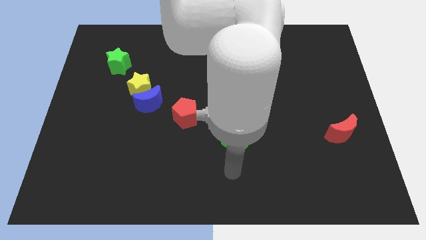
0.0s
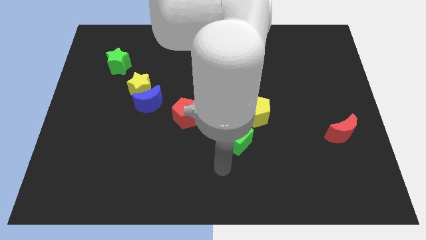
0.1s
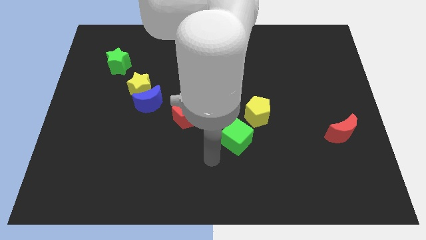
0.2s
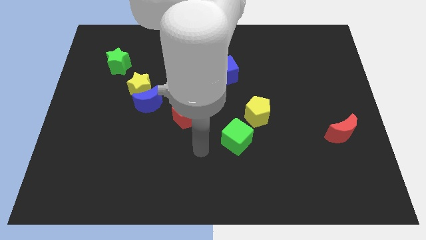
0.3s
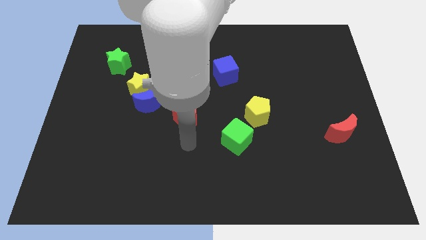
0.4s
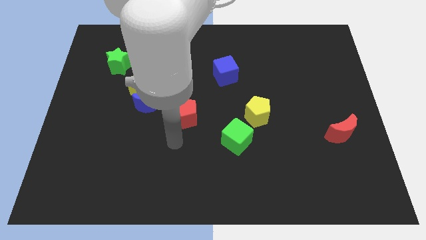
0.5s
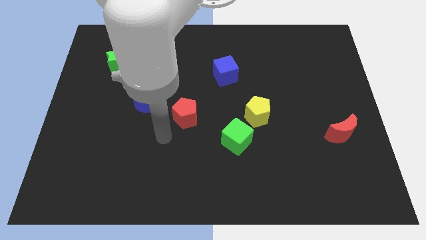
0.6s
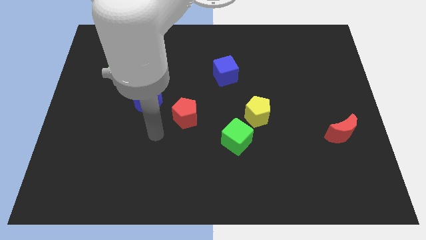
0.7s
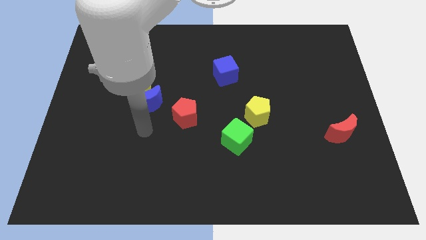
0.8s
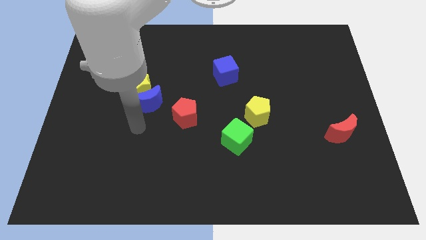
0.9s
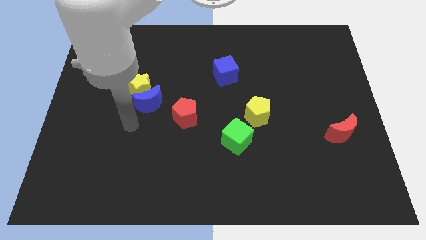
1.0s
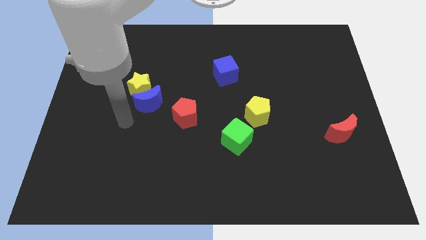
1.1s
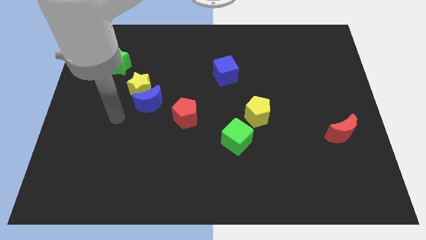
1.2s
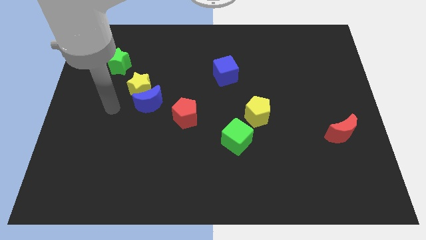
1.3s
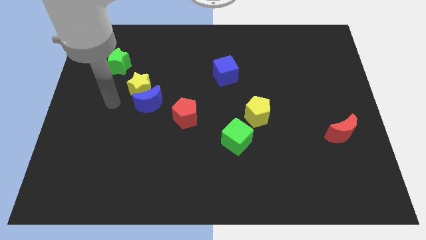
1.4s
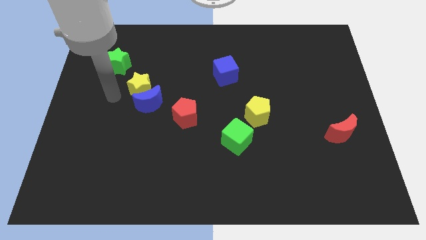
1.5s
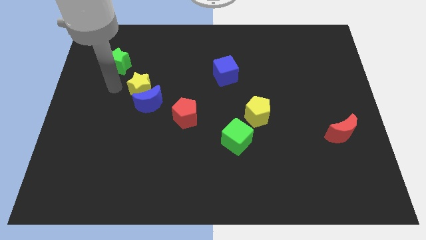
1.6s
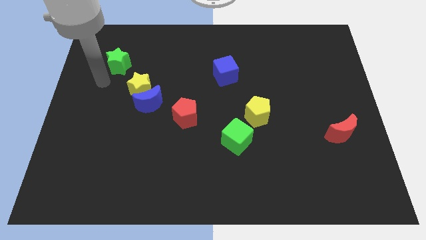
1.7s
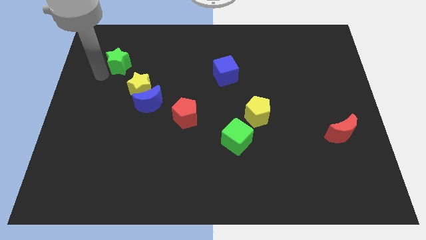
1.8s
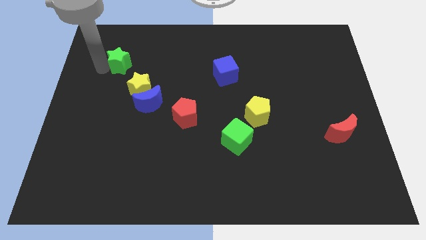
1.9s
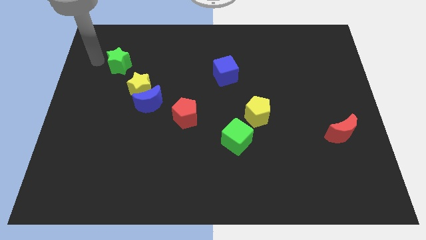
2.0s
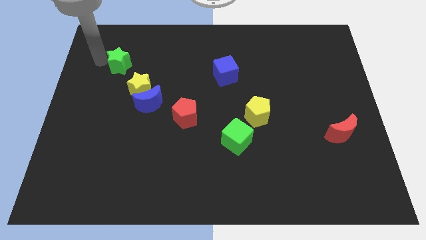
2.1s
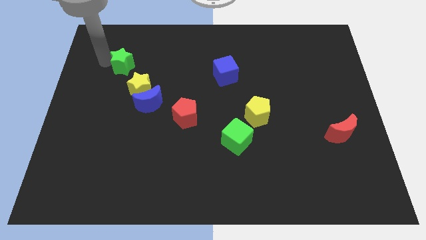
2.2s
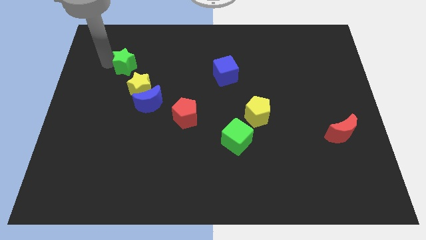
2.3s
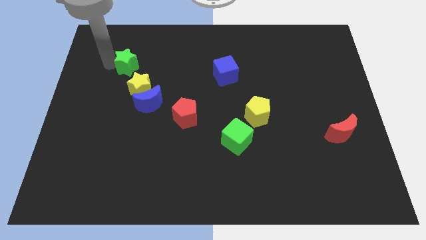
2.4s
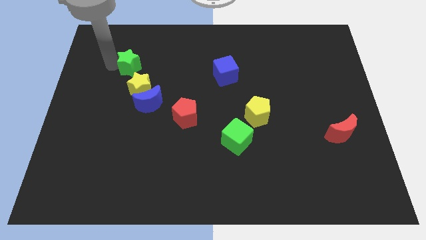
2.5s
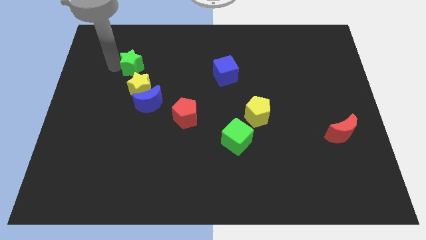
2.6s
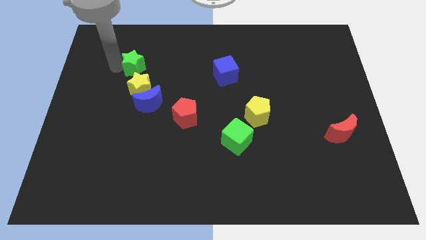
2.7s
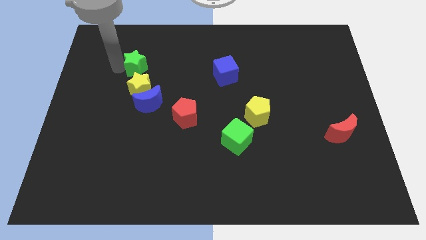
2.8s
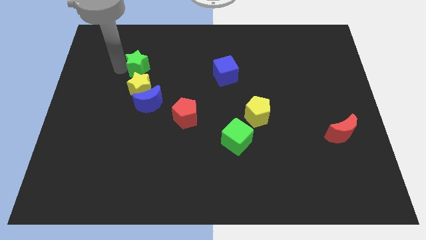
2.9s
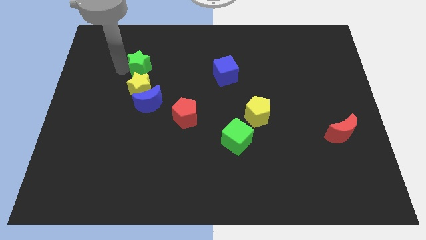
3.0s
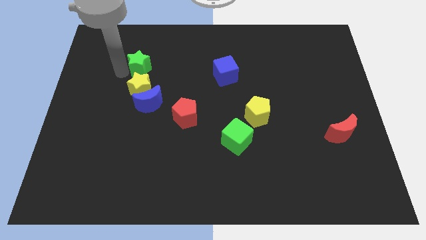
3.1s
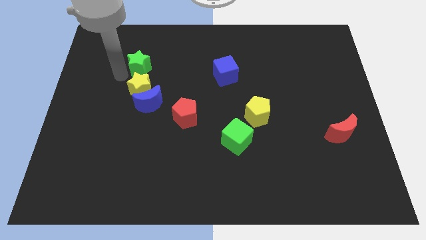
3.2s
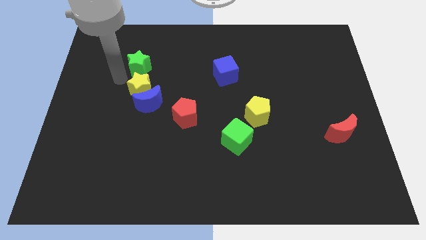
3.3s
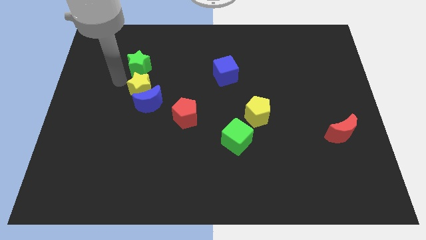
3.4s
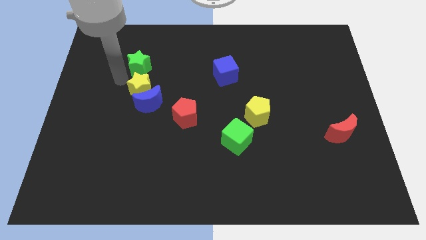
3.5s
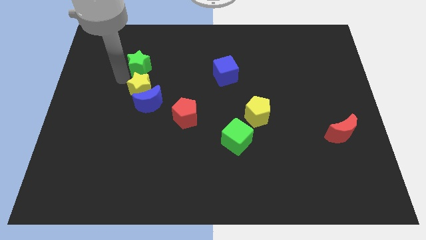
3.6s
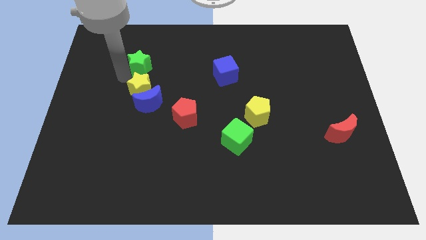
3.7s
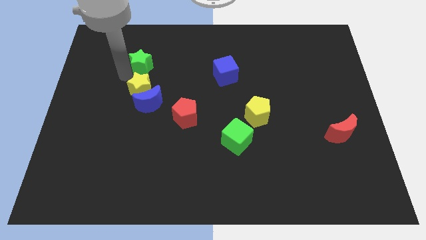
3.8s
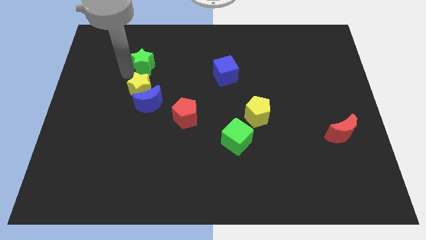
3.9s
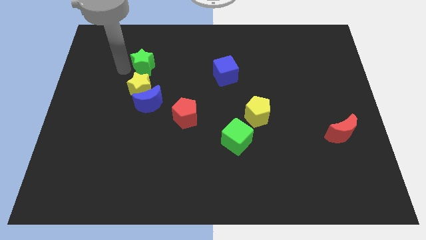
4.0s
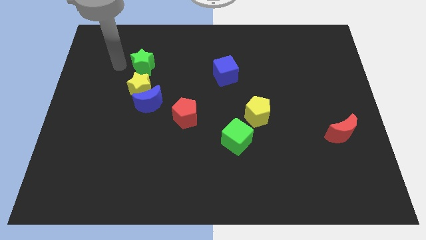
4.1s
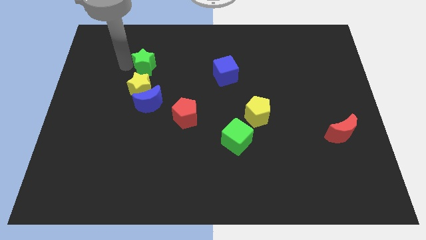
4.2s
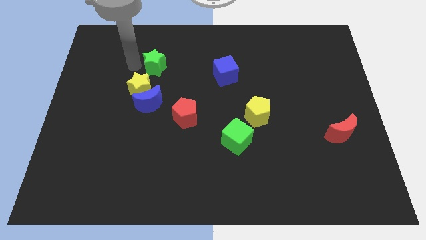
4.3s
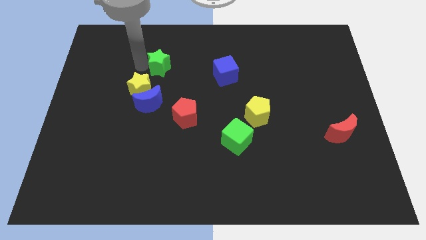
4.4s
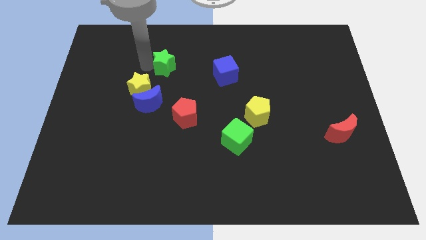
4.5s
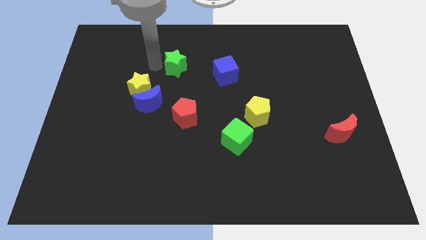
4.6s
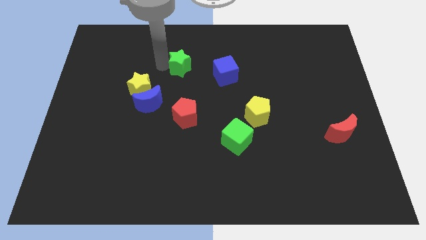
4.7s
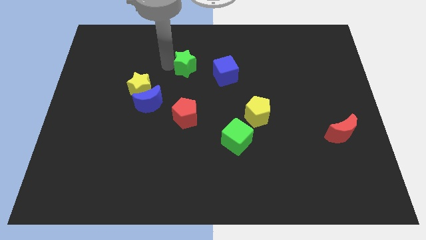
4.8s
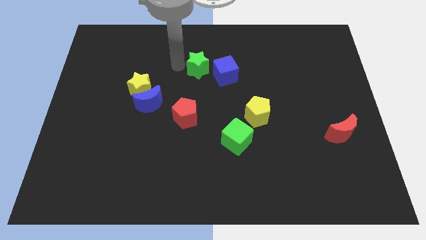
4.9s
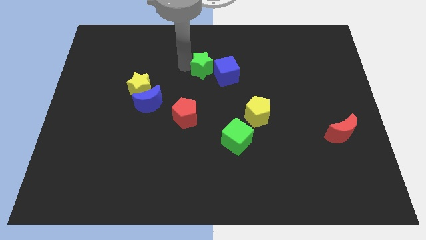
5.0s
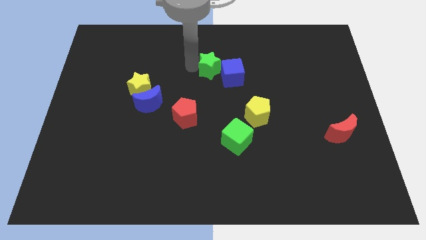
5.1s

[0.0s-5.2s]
push the green star close to the blue cube

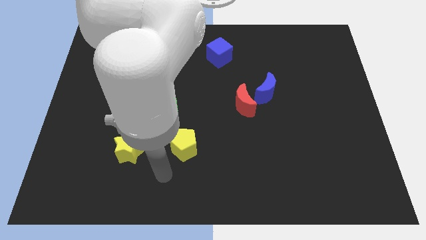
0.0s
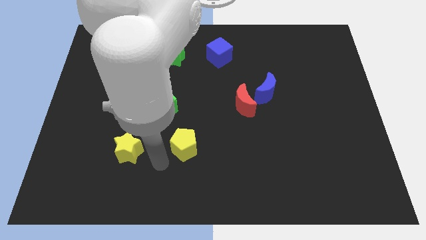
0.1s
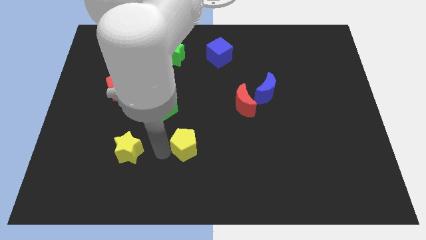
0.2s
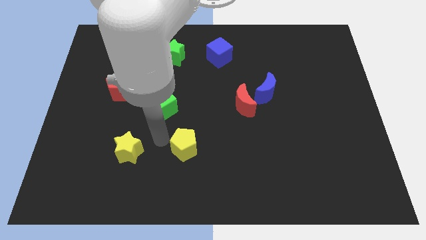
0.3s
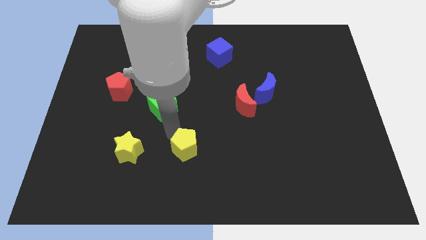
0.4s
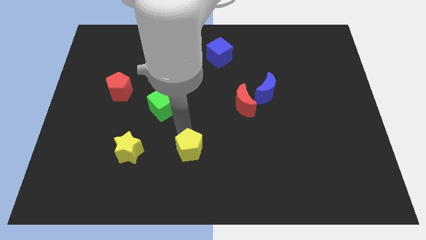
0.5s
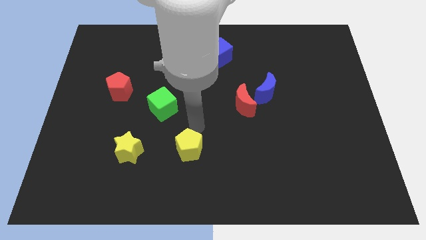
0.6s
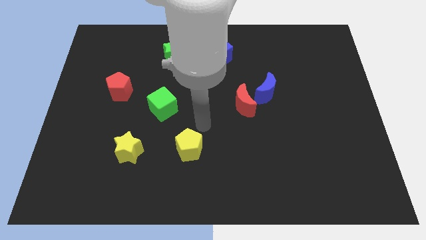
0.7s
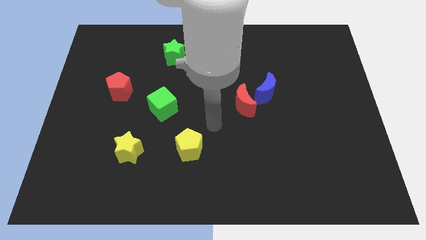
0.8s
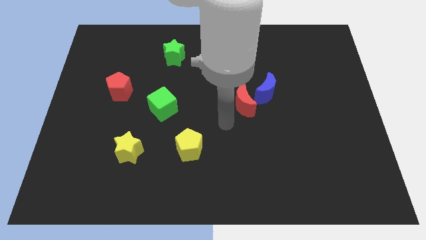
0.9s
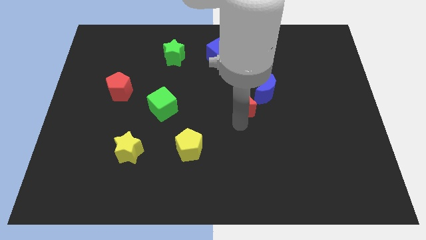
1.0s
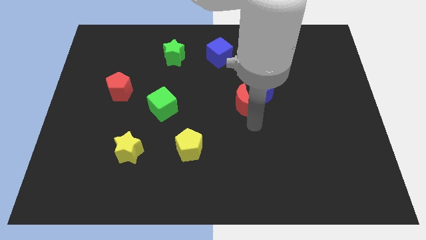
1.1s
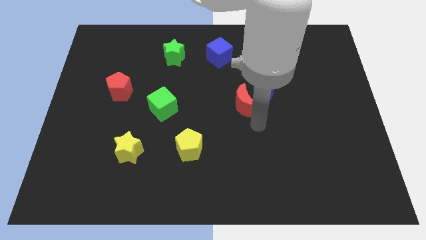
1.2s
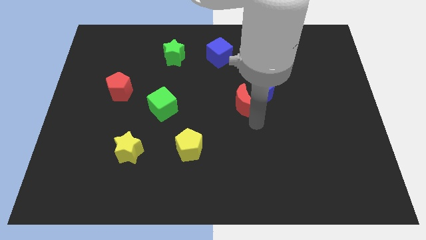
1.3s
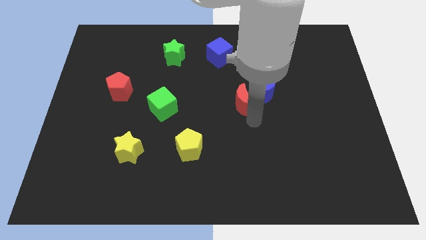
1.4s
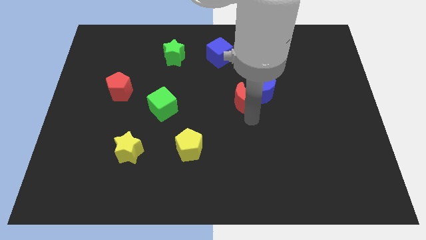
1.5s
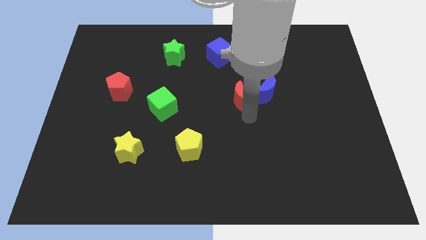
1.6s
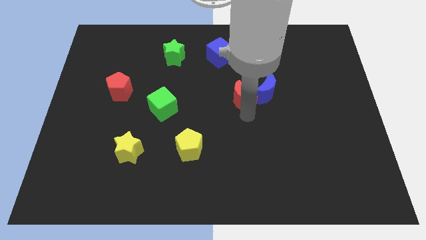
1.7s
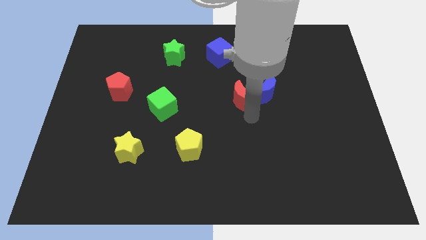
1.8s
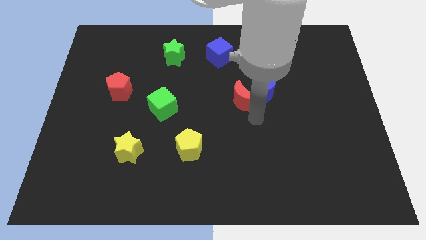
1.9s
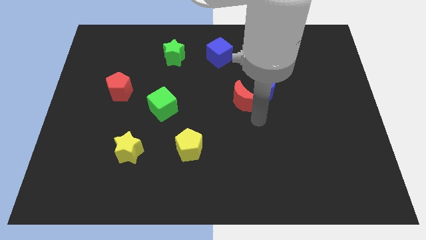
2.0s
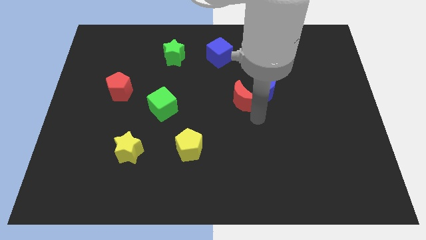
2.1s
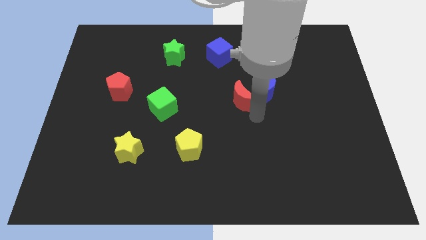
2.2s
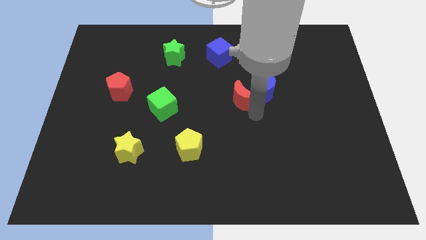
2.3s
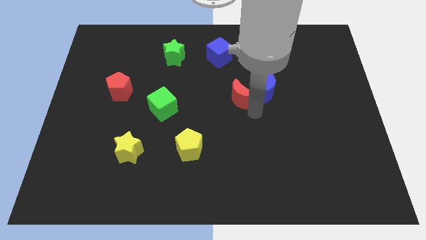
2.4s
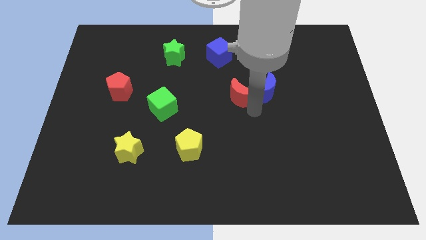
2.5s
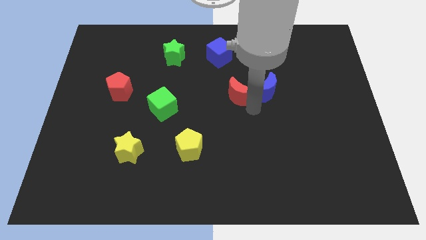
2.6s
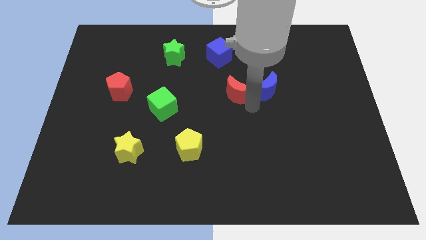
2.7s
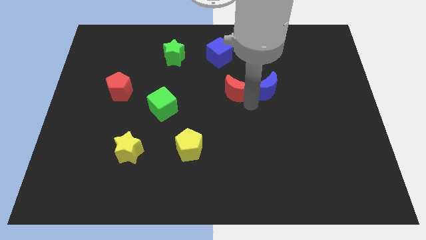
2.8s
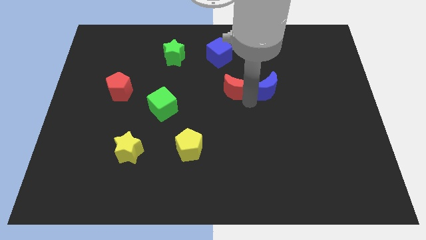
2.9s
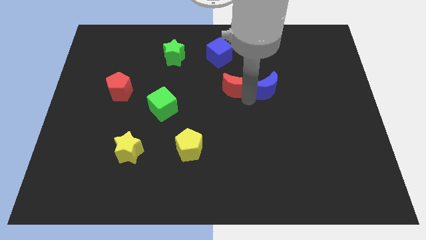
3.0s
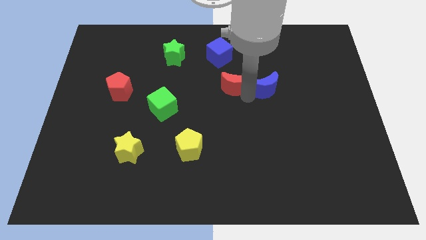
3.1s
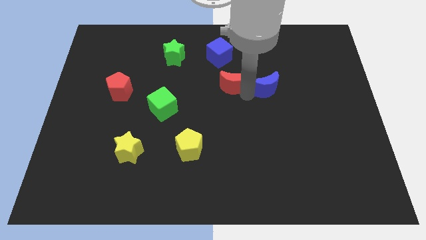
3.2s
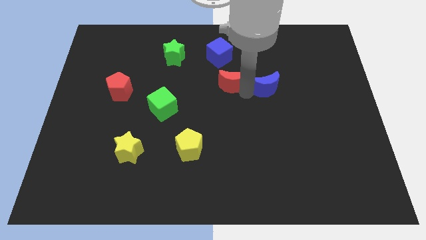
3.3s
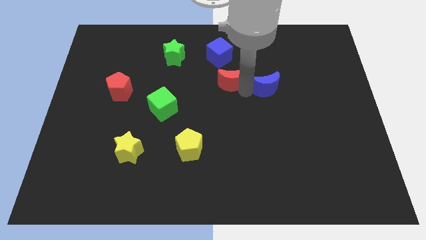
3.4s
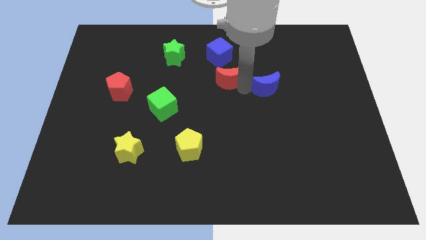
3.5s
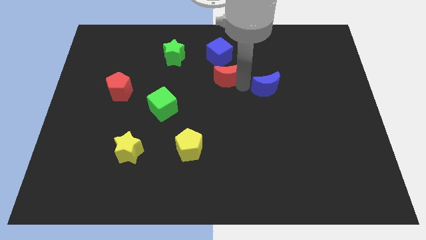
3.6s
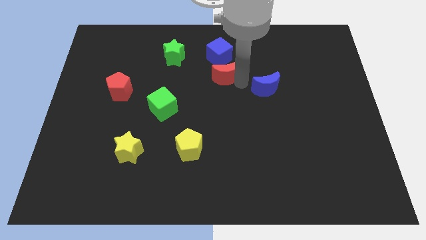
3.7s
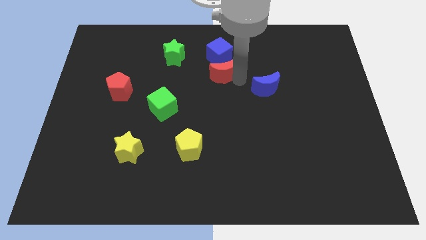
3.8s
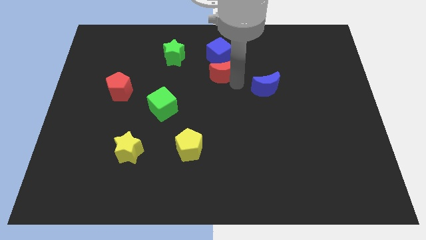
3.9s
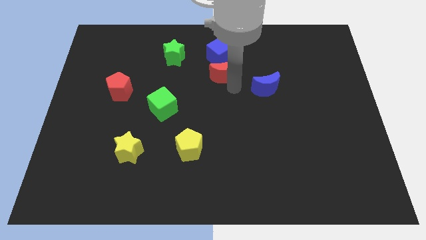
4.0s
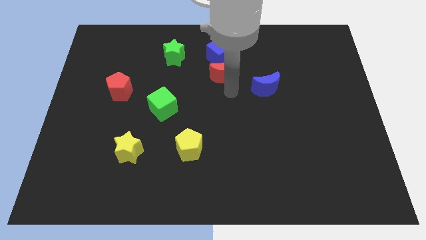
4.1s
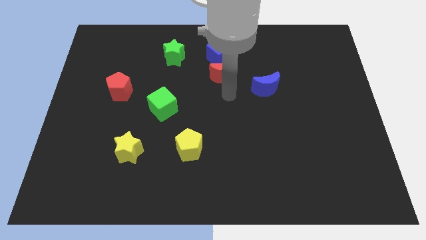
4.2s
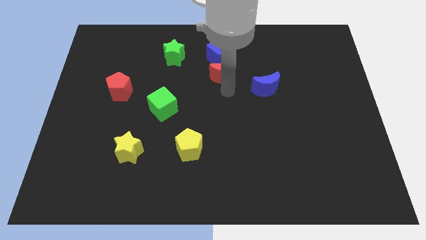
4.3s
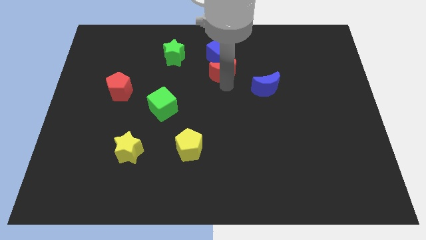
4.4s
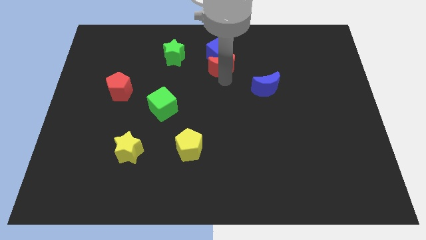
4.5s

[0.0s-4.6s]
push the red moon next to the blue cube
